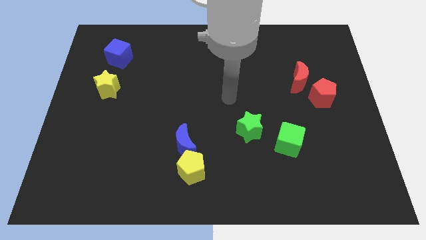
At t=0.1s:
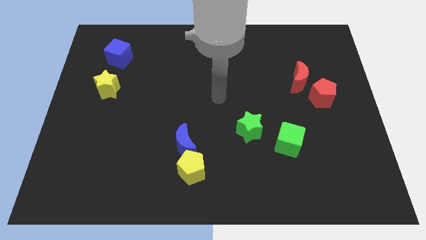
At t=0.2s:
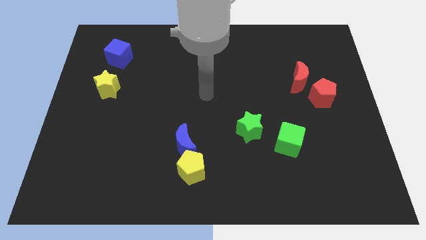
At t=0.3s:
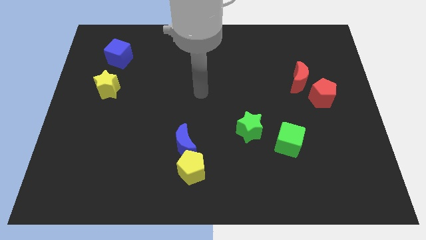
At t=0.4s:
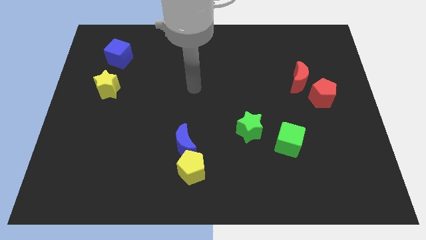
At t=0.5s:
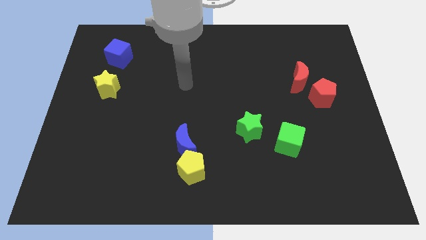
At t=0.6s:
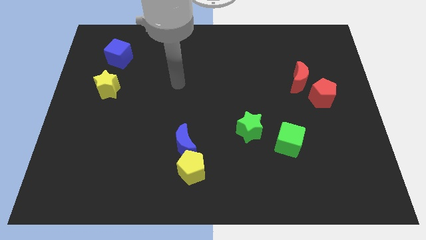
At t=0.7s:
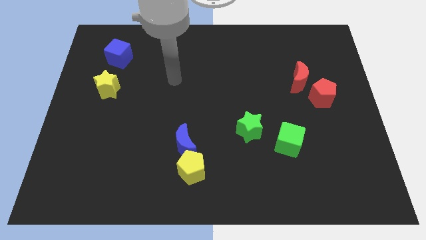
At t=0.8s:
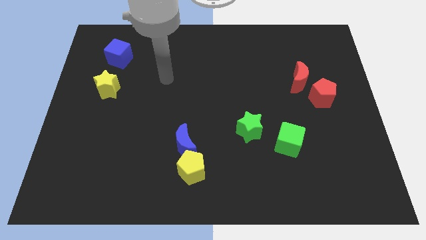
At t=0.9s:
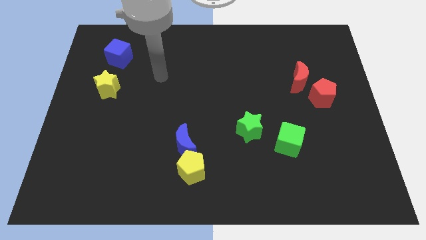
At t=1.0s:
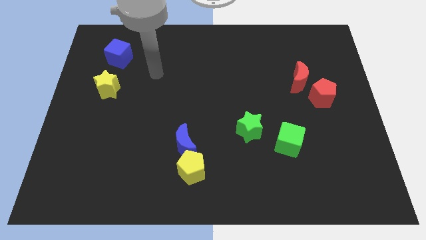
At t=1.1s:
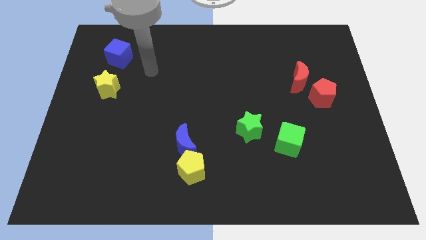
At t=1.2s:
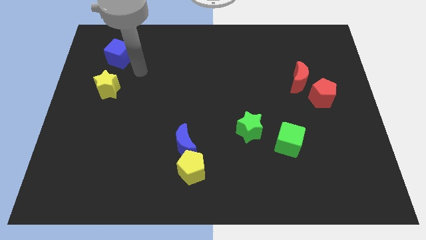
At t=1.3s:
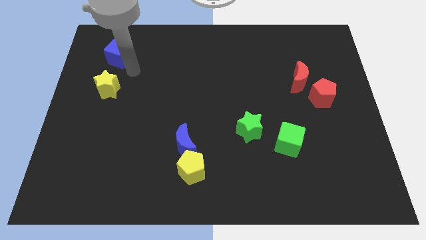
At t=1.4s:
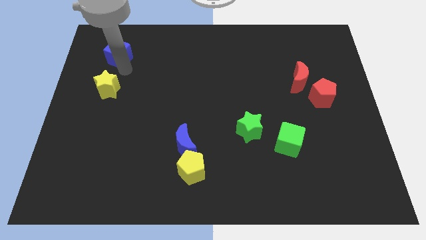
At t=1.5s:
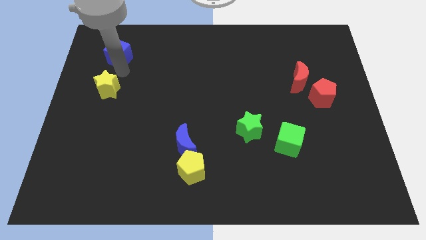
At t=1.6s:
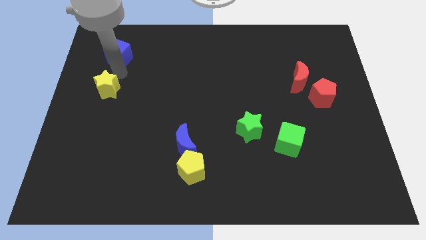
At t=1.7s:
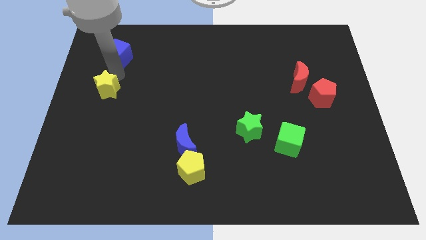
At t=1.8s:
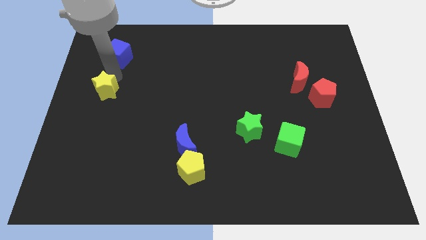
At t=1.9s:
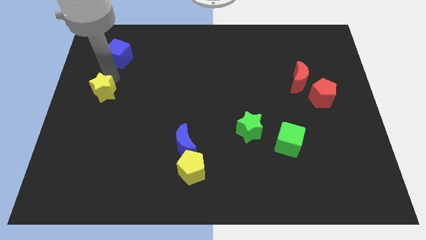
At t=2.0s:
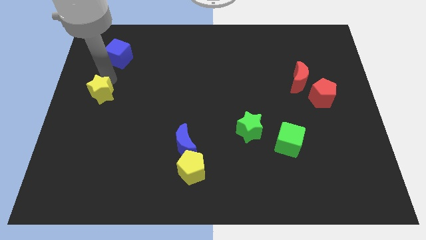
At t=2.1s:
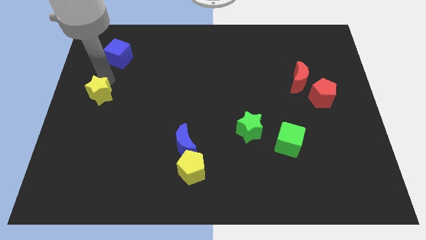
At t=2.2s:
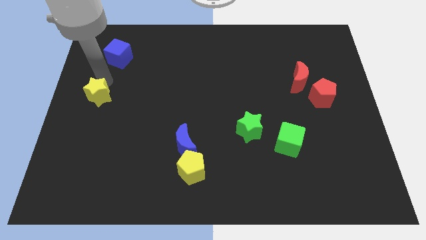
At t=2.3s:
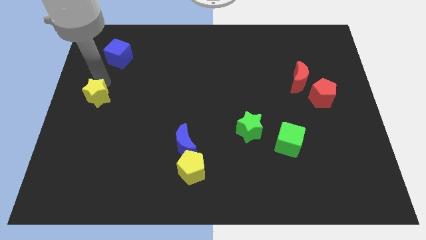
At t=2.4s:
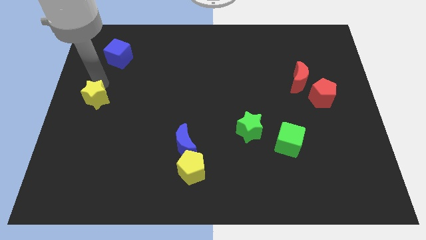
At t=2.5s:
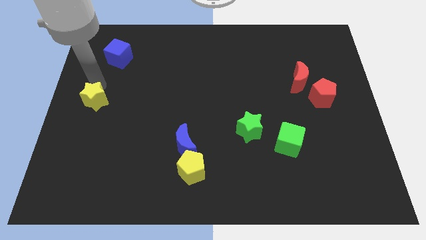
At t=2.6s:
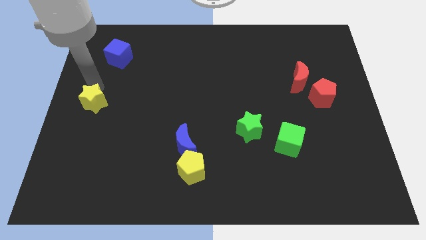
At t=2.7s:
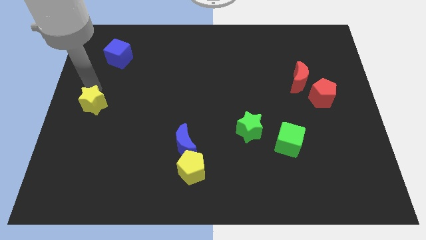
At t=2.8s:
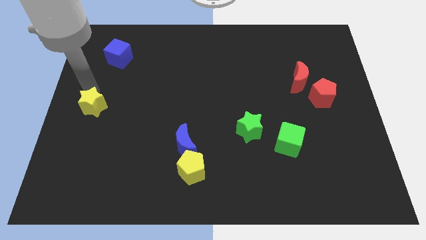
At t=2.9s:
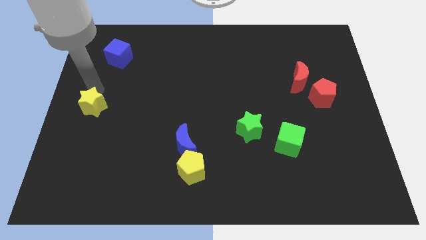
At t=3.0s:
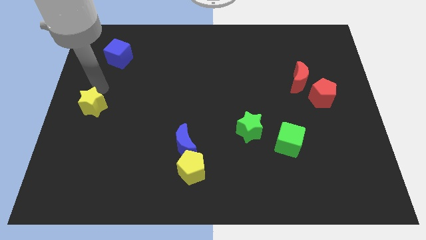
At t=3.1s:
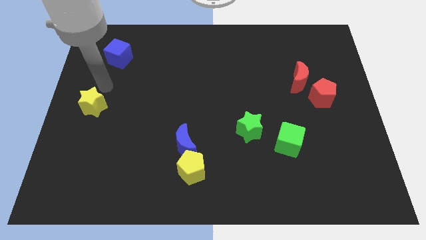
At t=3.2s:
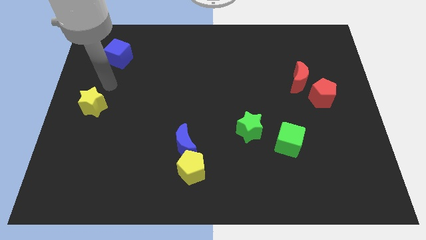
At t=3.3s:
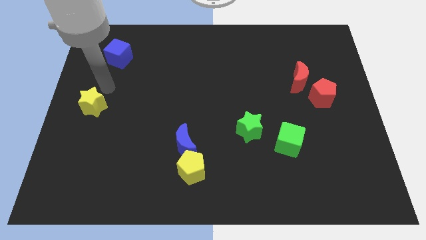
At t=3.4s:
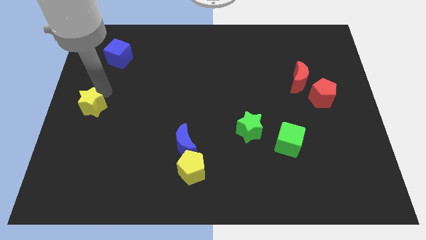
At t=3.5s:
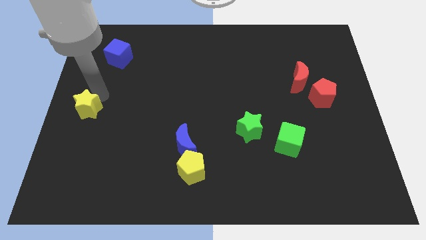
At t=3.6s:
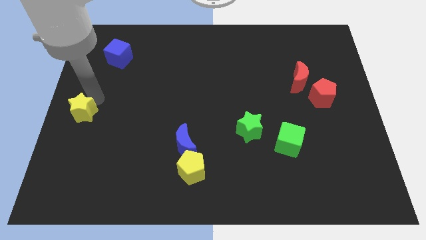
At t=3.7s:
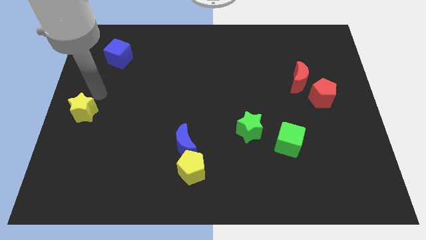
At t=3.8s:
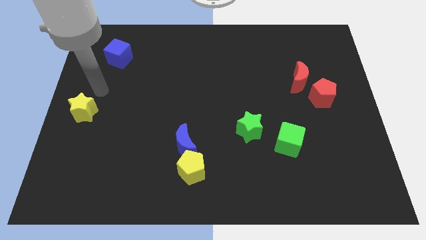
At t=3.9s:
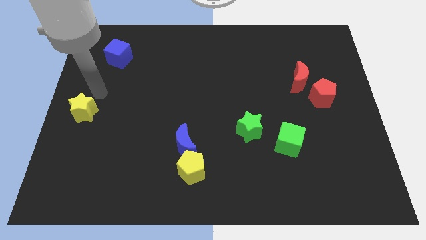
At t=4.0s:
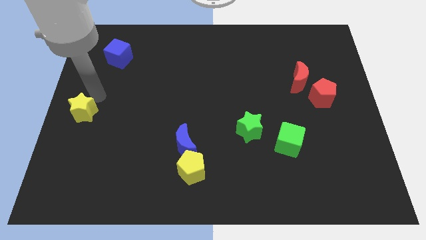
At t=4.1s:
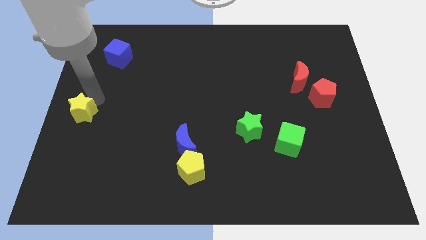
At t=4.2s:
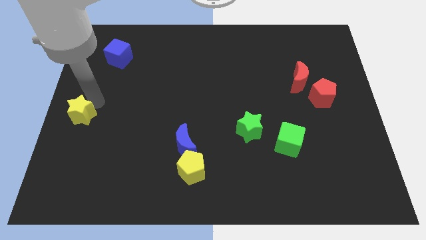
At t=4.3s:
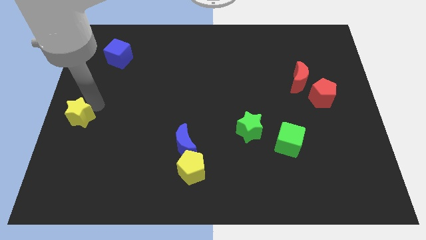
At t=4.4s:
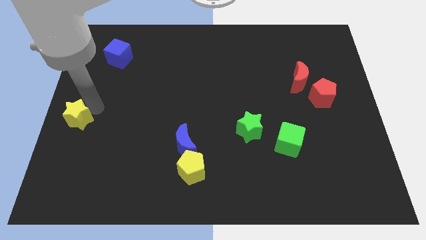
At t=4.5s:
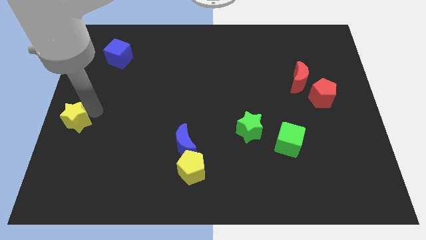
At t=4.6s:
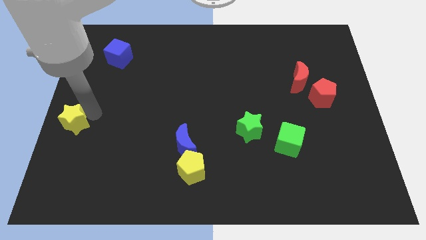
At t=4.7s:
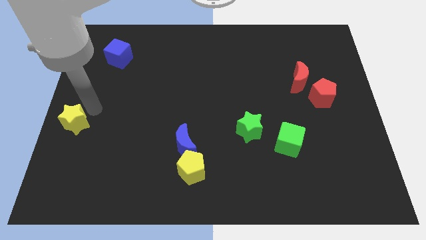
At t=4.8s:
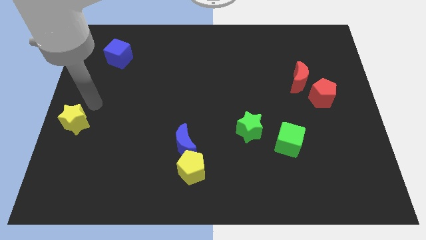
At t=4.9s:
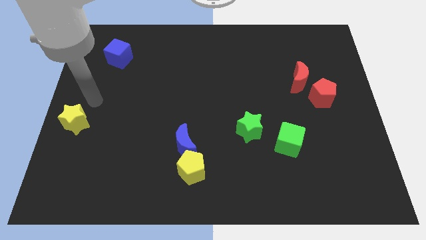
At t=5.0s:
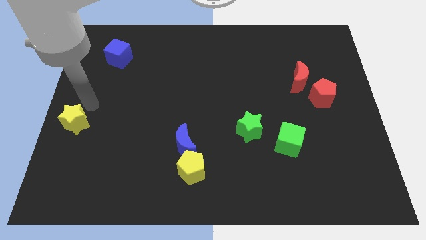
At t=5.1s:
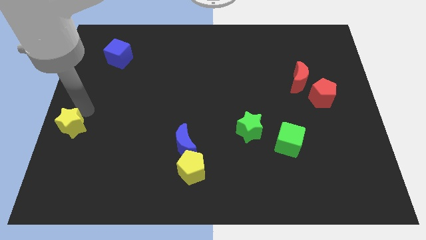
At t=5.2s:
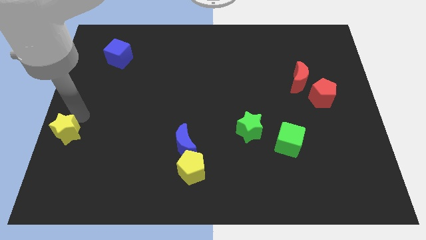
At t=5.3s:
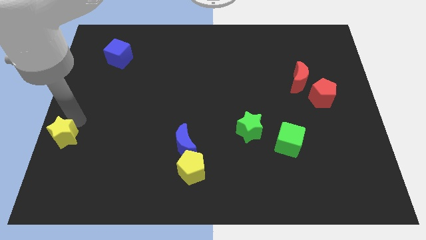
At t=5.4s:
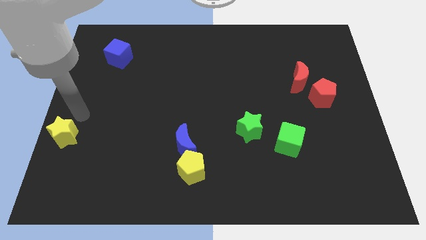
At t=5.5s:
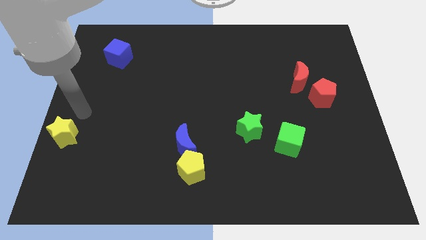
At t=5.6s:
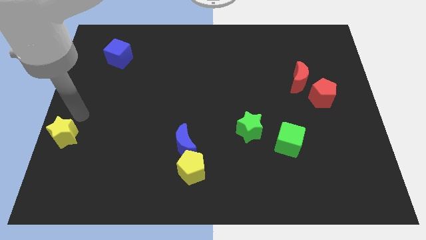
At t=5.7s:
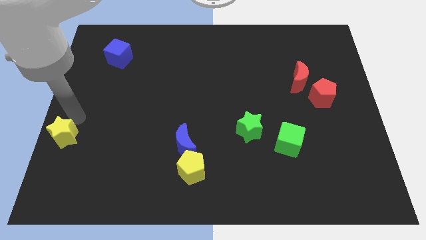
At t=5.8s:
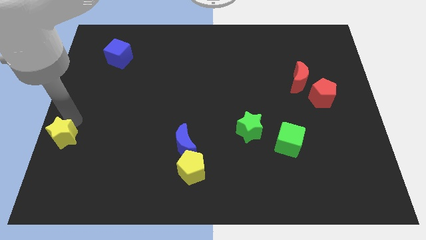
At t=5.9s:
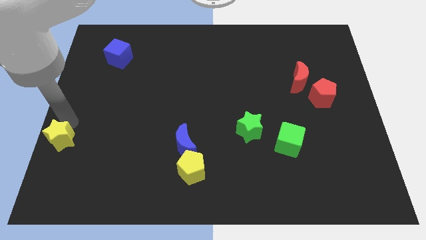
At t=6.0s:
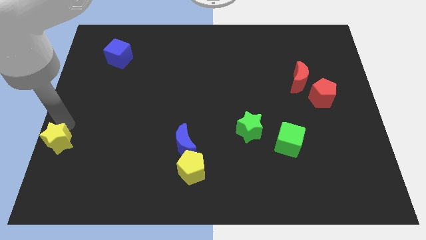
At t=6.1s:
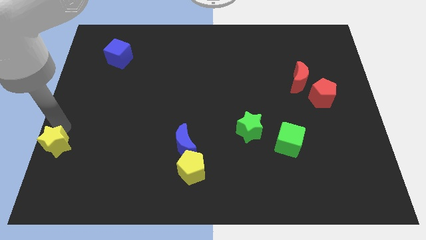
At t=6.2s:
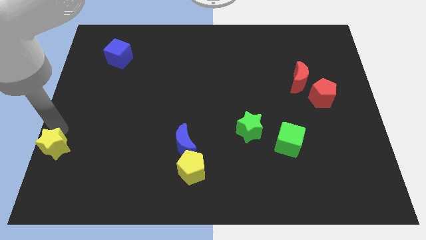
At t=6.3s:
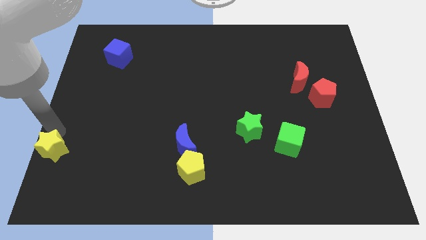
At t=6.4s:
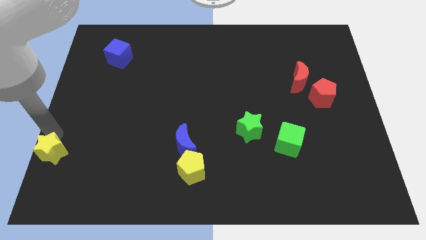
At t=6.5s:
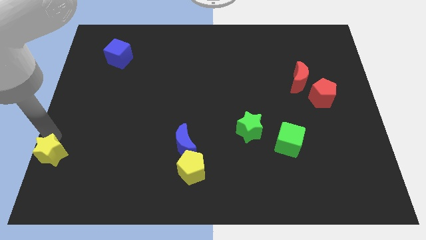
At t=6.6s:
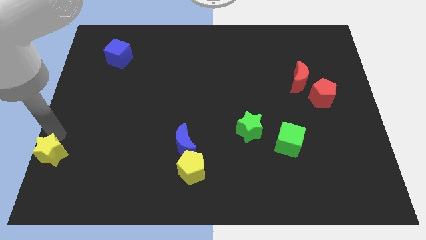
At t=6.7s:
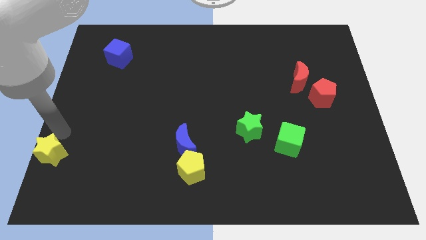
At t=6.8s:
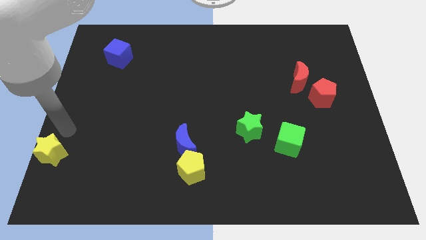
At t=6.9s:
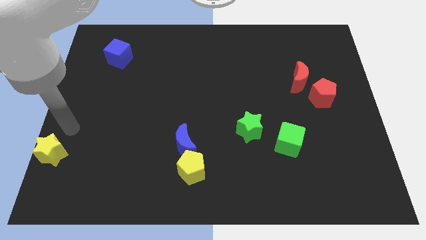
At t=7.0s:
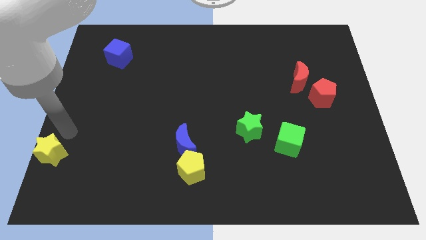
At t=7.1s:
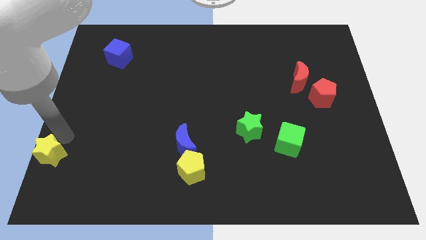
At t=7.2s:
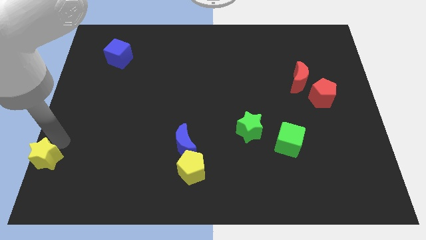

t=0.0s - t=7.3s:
put the yellow star to the bottom left corner
